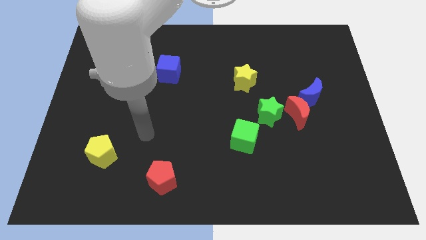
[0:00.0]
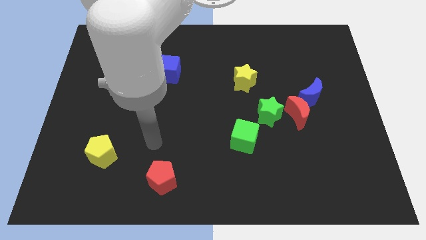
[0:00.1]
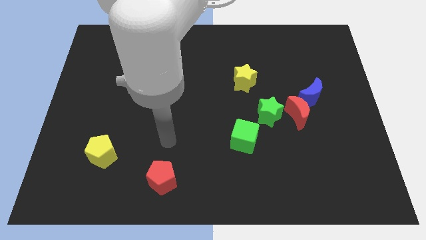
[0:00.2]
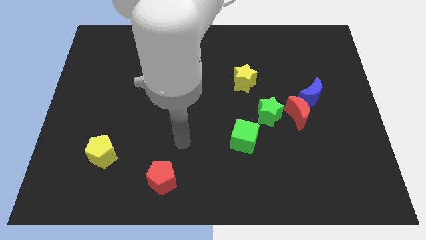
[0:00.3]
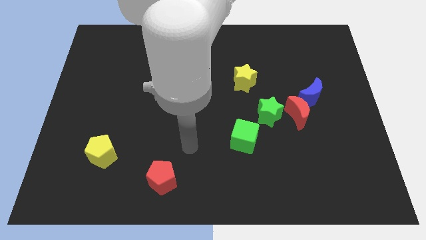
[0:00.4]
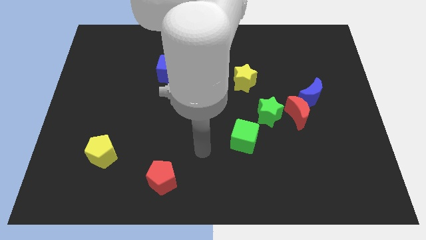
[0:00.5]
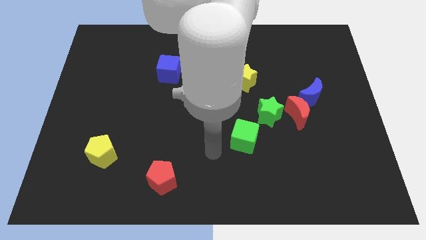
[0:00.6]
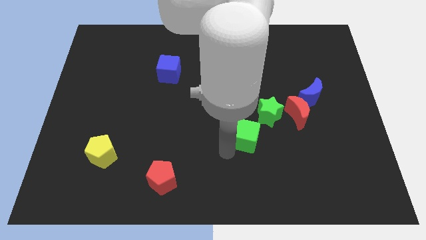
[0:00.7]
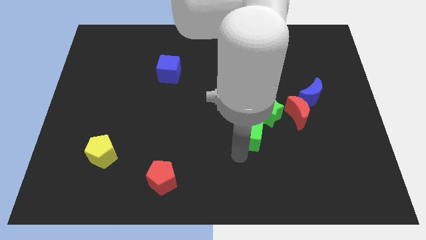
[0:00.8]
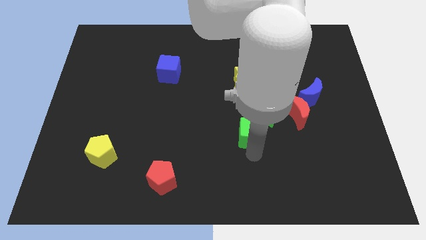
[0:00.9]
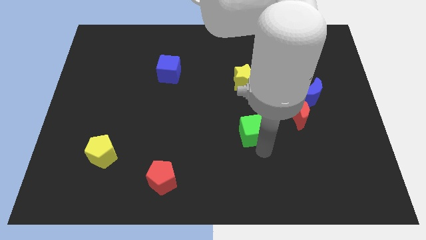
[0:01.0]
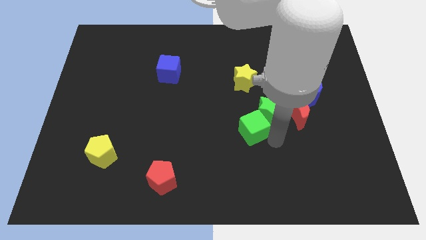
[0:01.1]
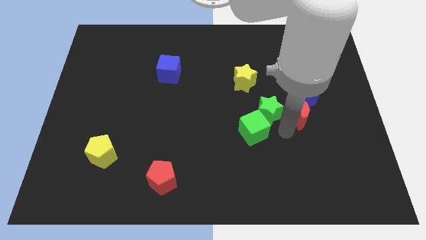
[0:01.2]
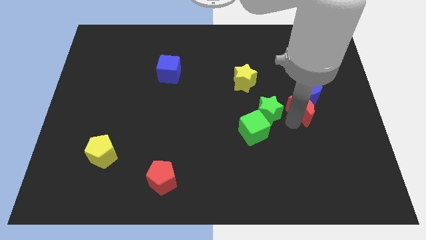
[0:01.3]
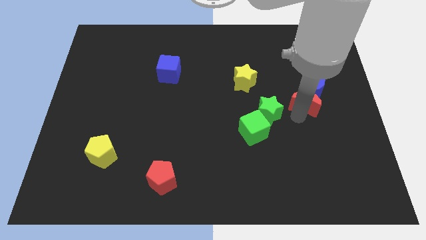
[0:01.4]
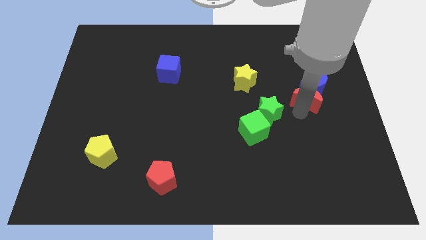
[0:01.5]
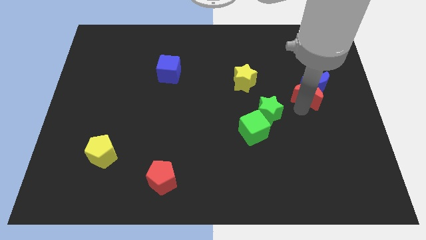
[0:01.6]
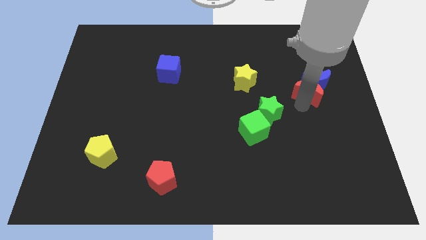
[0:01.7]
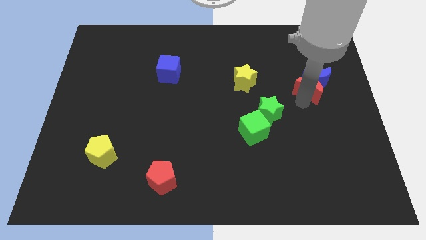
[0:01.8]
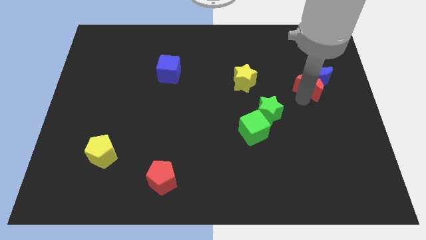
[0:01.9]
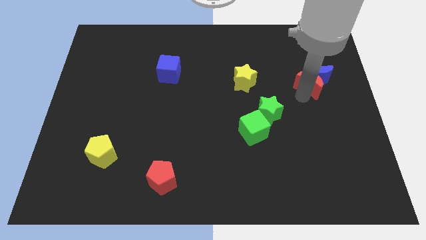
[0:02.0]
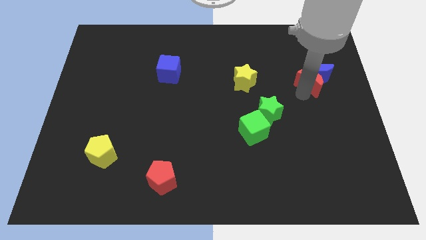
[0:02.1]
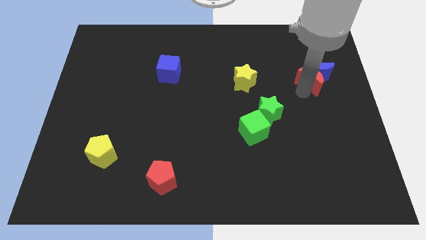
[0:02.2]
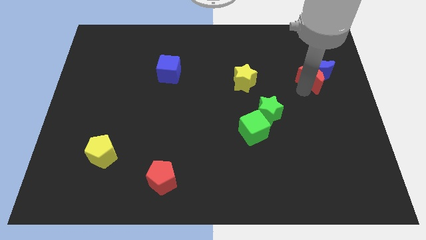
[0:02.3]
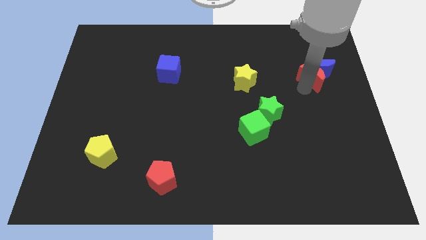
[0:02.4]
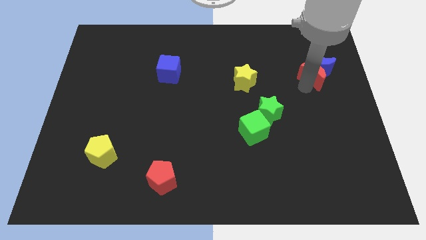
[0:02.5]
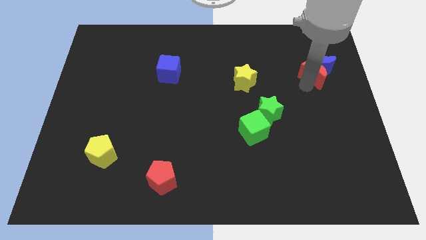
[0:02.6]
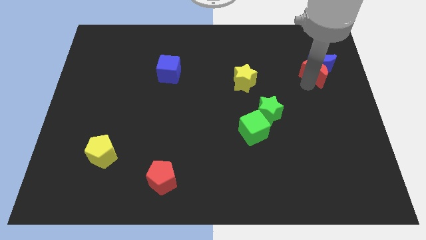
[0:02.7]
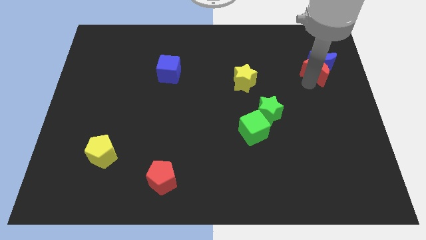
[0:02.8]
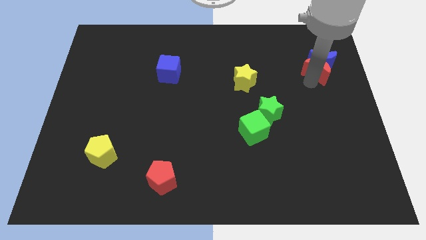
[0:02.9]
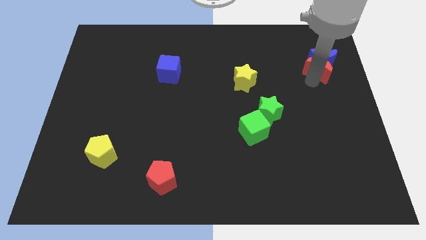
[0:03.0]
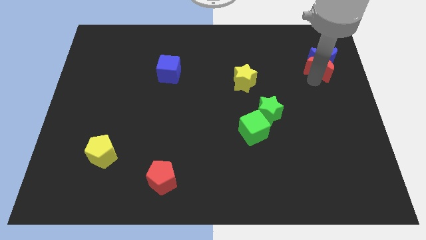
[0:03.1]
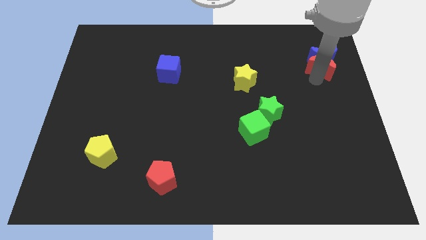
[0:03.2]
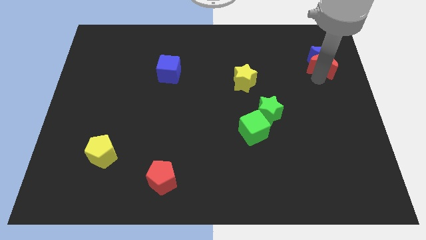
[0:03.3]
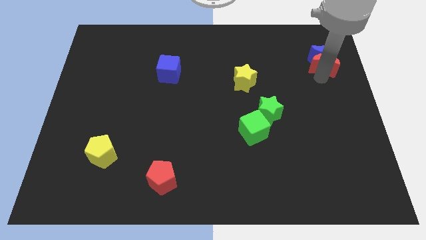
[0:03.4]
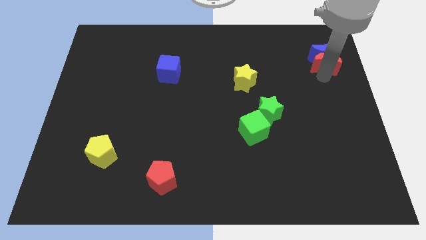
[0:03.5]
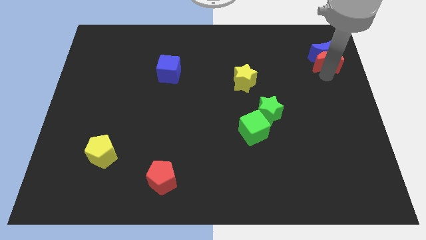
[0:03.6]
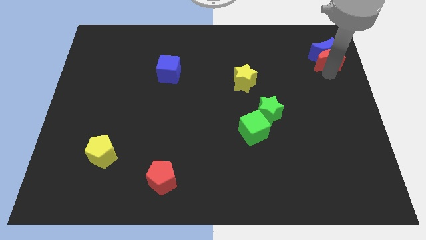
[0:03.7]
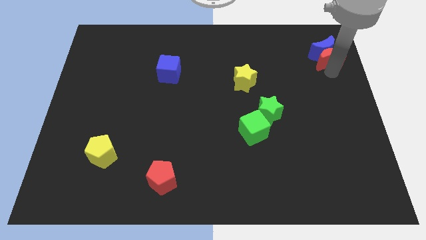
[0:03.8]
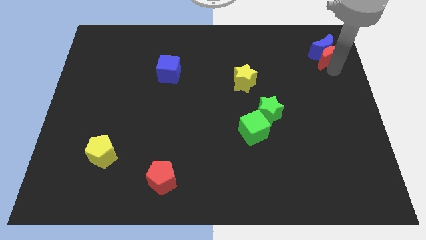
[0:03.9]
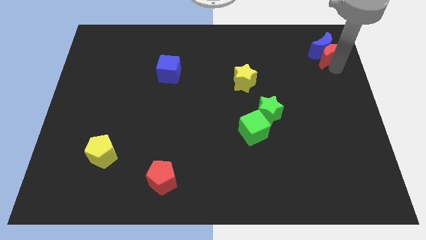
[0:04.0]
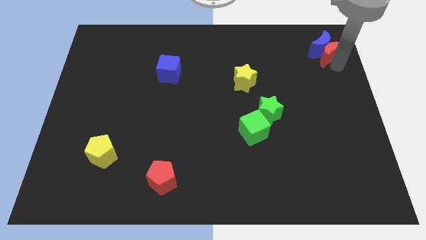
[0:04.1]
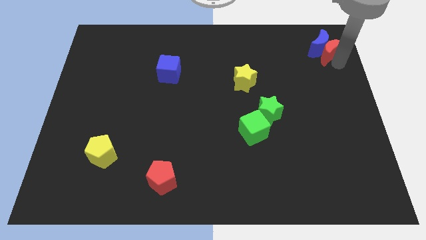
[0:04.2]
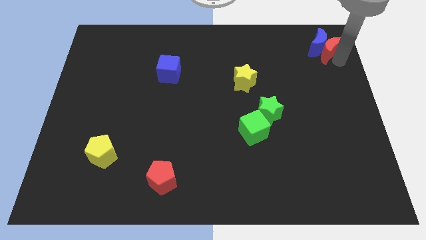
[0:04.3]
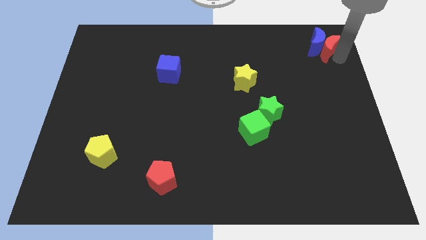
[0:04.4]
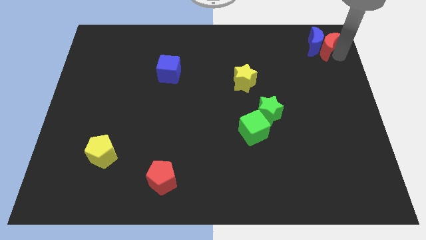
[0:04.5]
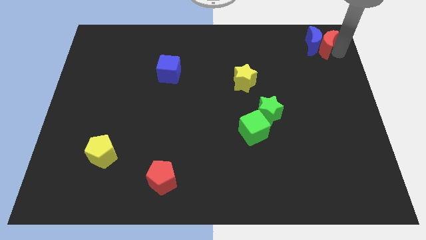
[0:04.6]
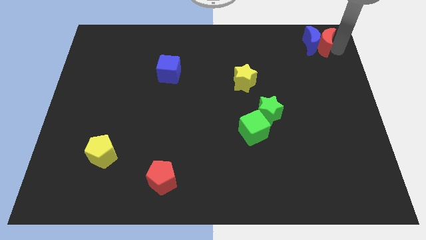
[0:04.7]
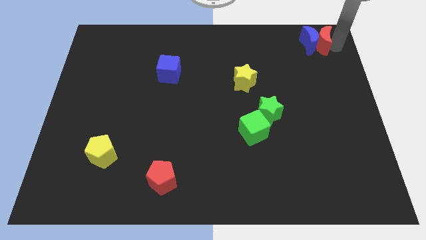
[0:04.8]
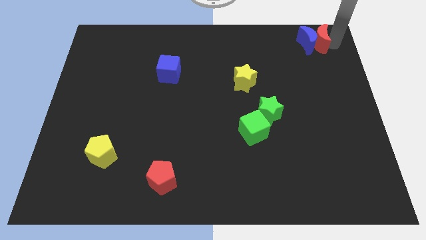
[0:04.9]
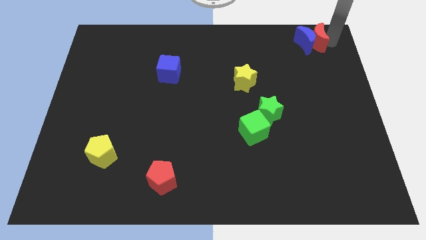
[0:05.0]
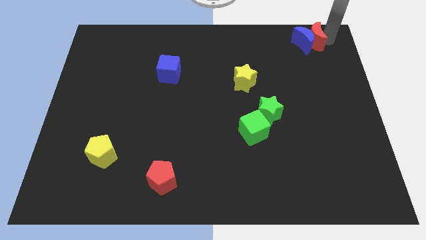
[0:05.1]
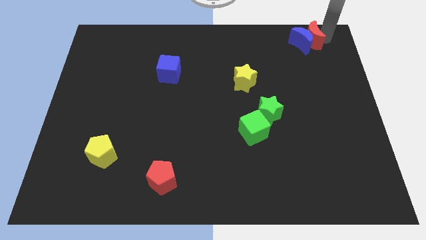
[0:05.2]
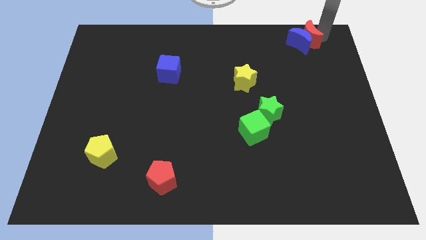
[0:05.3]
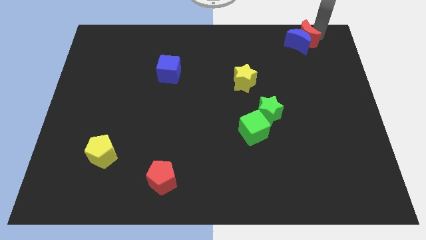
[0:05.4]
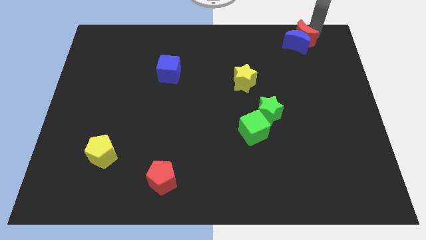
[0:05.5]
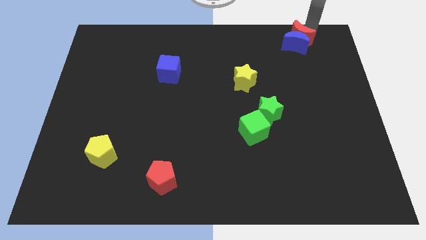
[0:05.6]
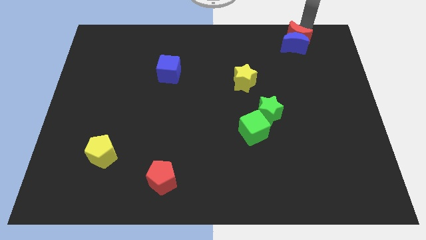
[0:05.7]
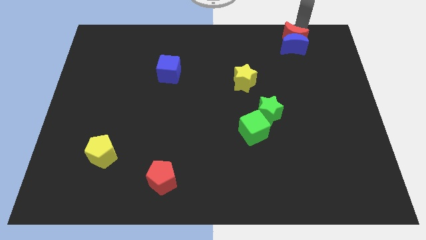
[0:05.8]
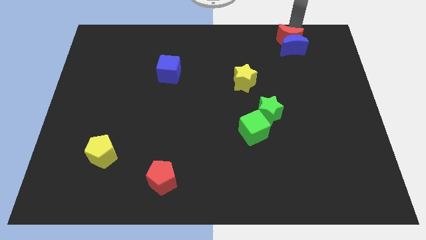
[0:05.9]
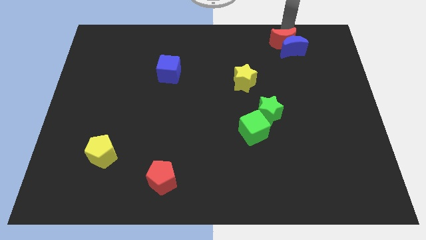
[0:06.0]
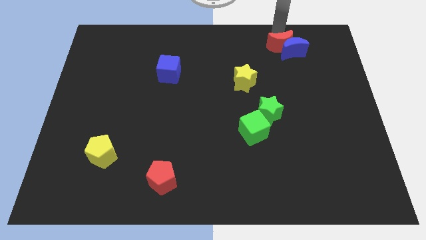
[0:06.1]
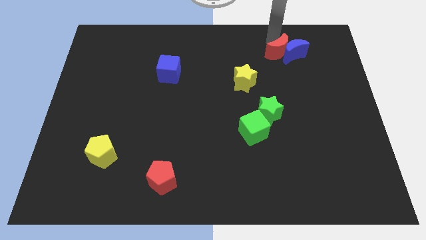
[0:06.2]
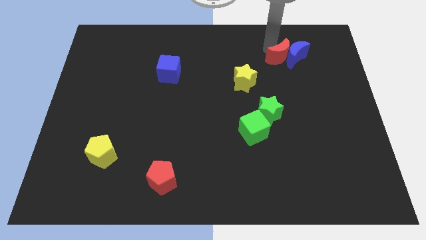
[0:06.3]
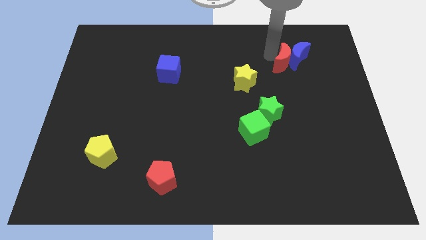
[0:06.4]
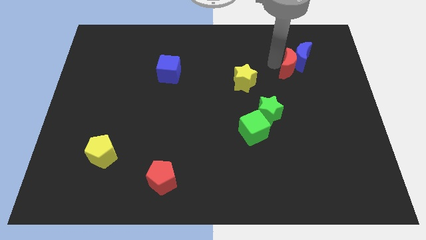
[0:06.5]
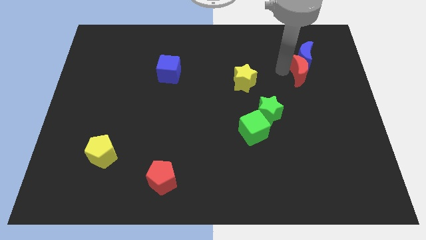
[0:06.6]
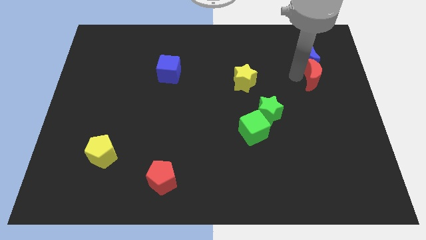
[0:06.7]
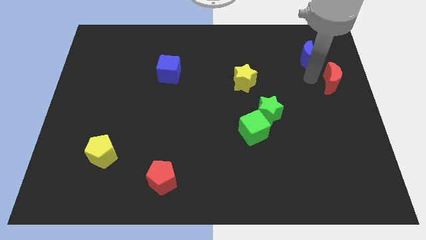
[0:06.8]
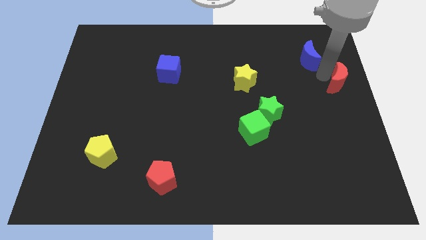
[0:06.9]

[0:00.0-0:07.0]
pull the blue moon apart from the red moon

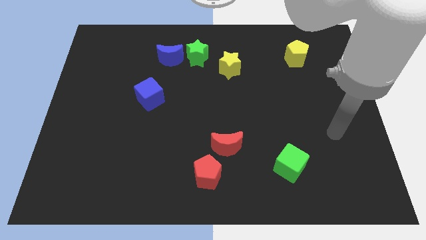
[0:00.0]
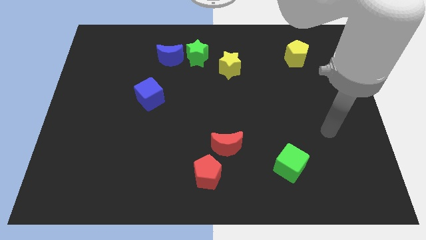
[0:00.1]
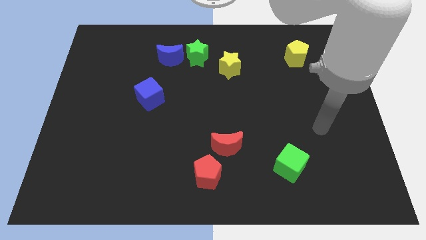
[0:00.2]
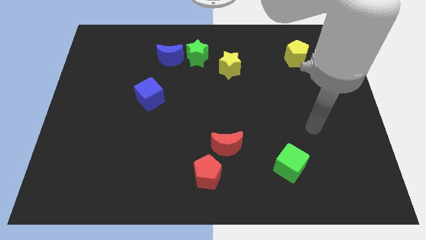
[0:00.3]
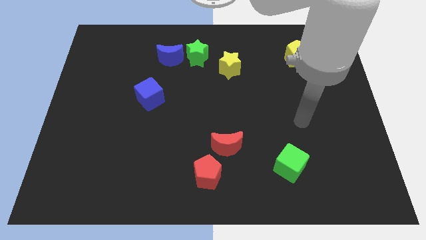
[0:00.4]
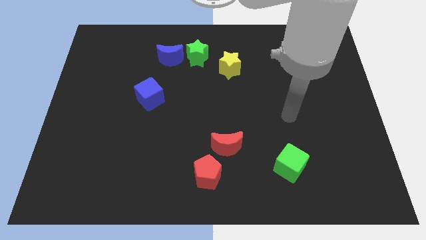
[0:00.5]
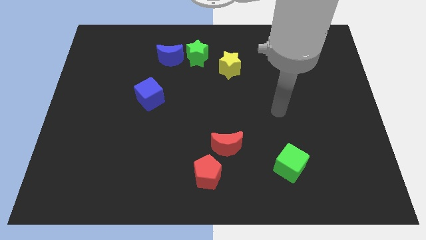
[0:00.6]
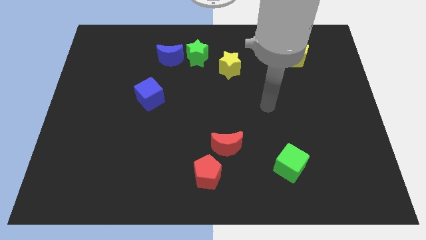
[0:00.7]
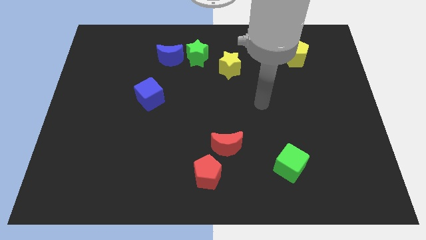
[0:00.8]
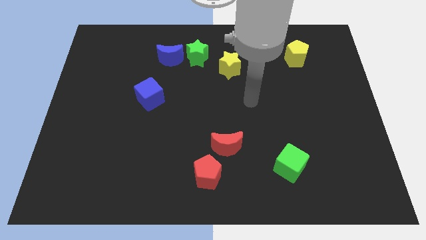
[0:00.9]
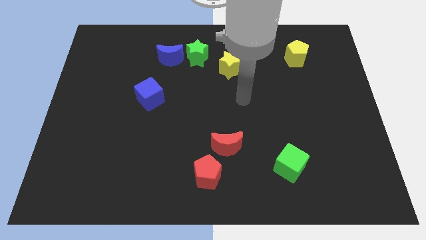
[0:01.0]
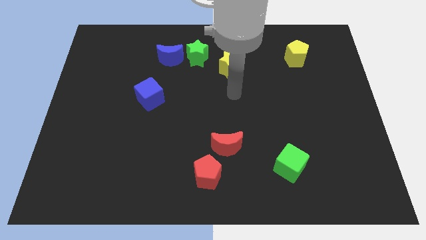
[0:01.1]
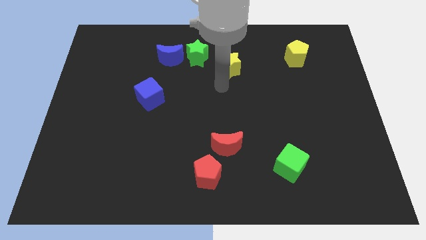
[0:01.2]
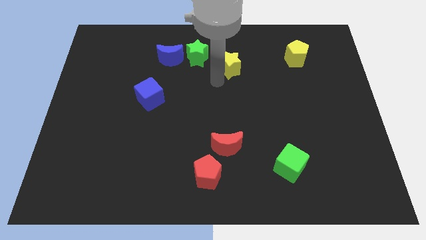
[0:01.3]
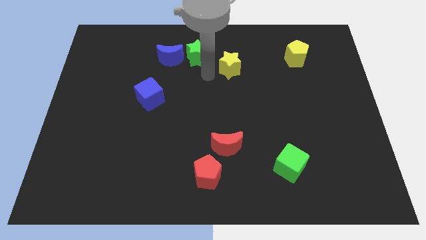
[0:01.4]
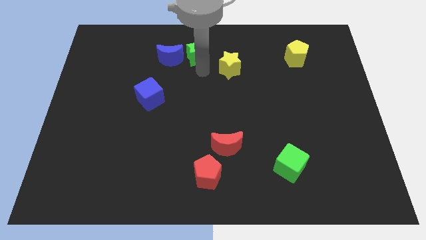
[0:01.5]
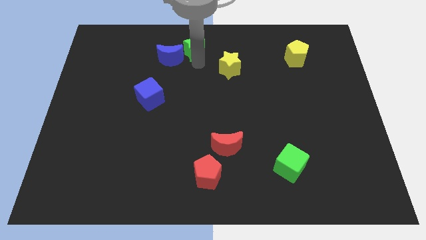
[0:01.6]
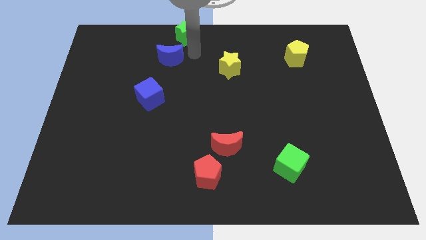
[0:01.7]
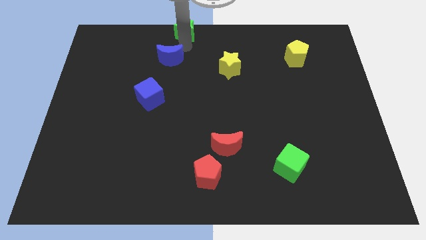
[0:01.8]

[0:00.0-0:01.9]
pull the blue moon apart from the green star

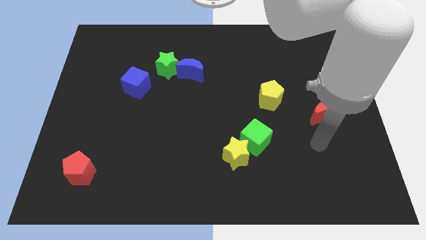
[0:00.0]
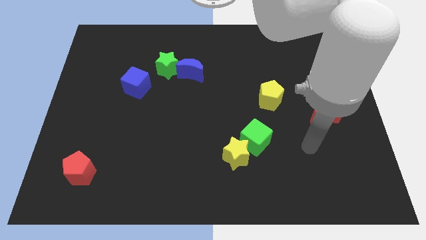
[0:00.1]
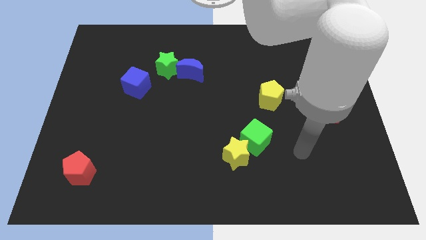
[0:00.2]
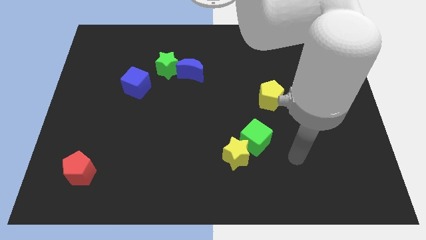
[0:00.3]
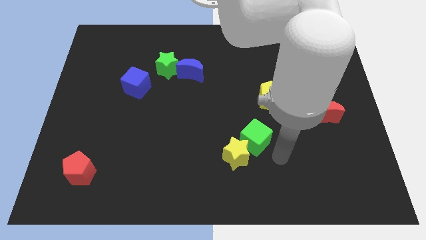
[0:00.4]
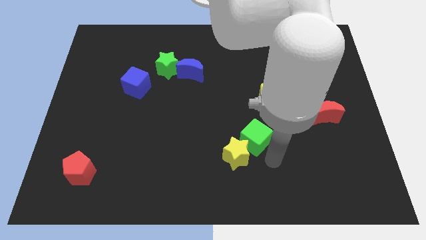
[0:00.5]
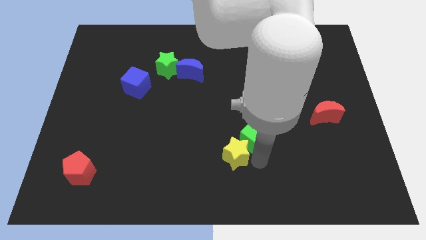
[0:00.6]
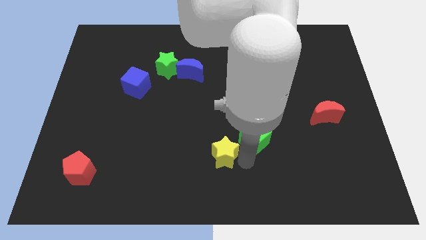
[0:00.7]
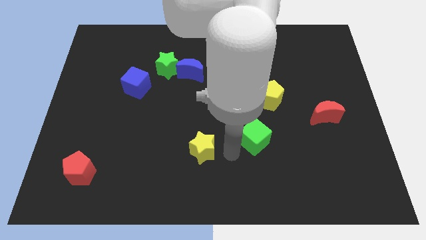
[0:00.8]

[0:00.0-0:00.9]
pull the green cube apart from the yellow star
